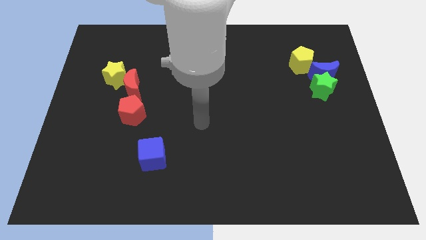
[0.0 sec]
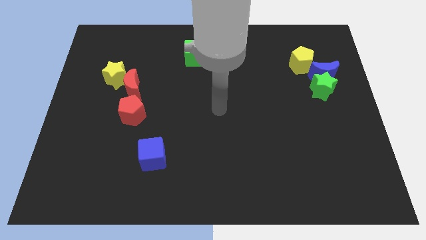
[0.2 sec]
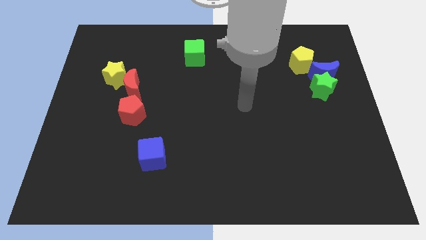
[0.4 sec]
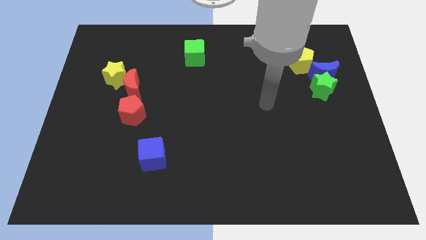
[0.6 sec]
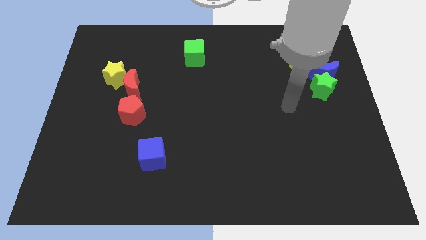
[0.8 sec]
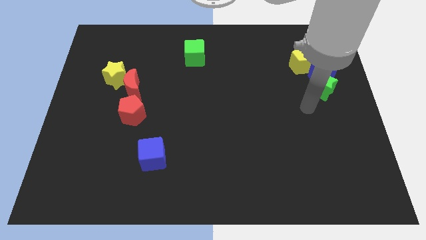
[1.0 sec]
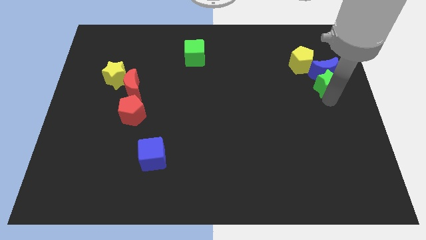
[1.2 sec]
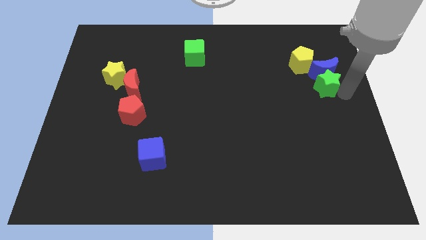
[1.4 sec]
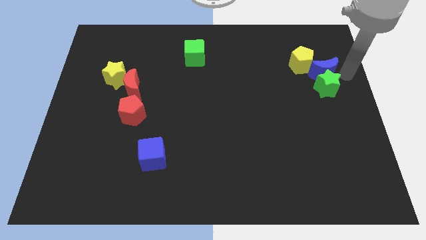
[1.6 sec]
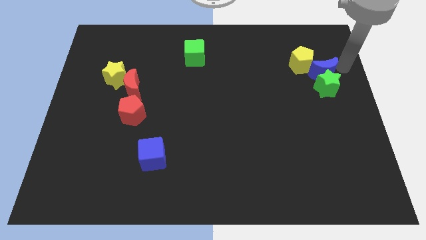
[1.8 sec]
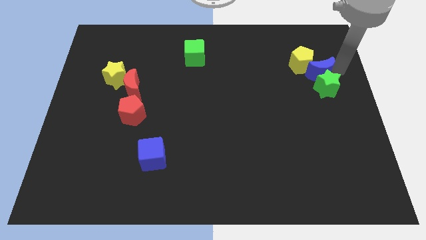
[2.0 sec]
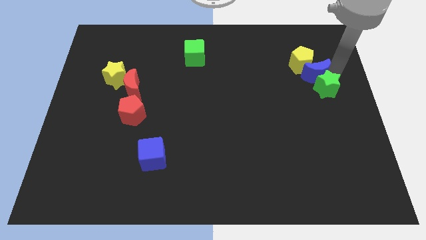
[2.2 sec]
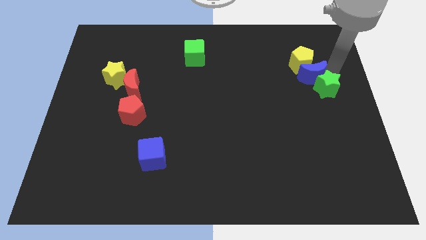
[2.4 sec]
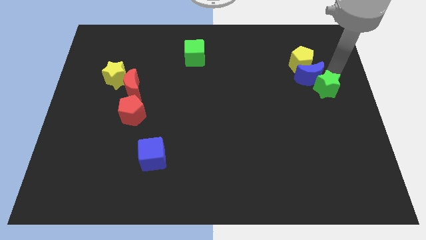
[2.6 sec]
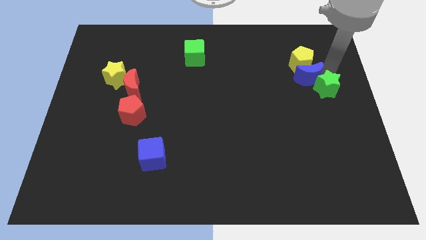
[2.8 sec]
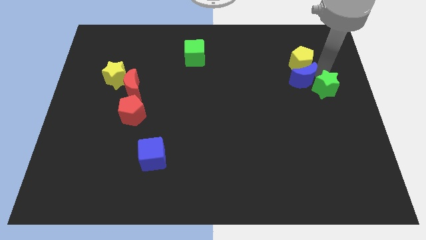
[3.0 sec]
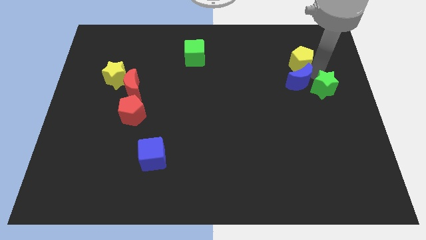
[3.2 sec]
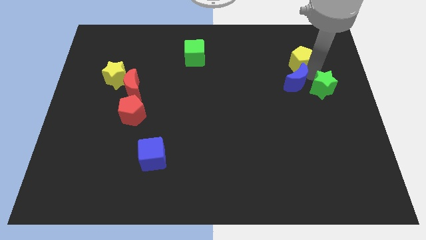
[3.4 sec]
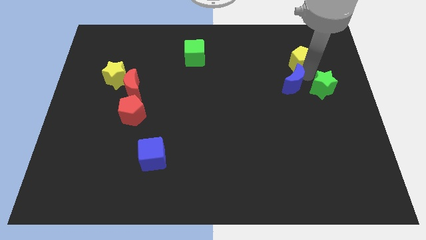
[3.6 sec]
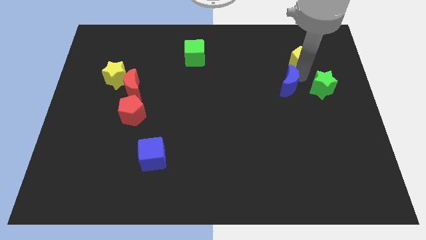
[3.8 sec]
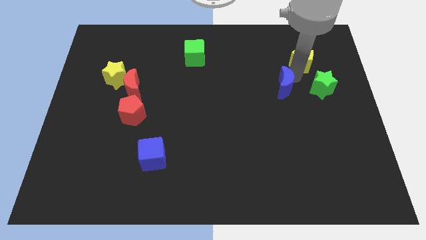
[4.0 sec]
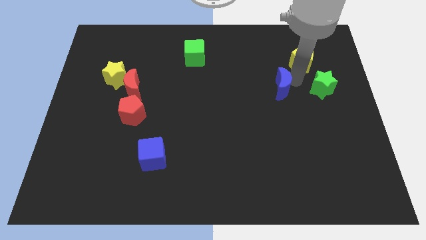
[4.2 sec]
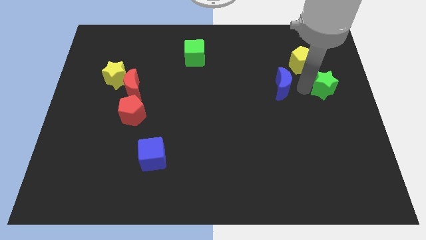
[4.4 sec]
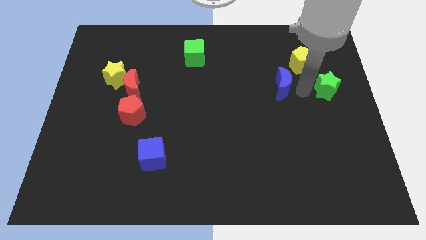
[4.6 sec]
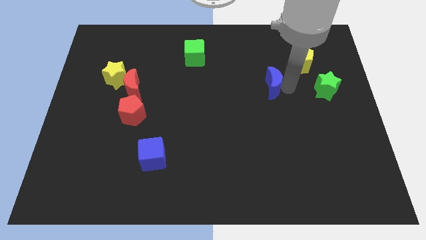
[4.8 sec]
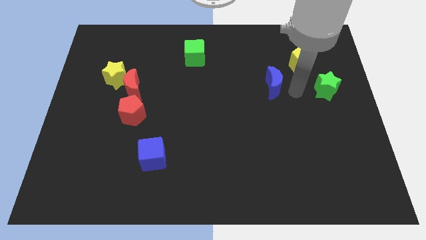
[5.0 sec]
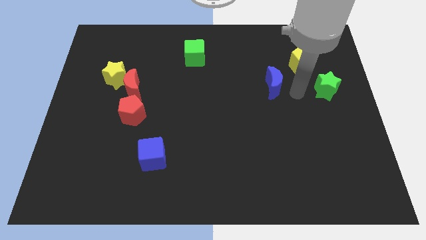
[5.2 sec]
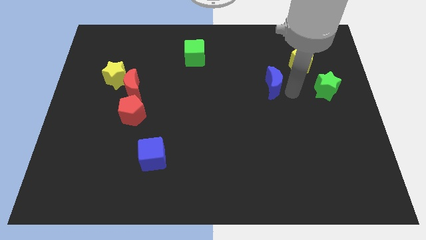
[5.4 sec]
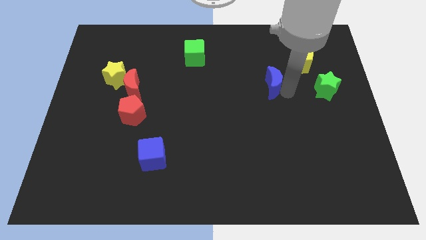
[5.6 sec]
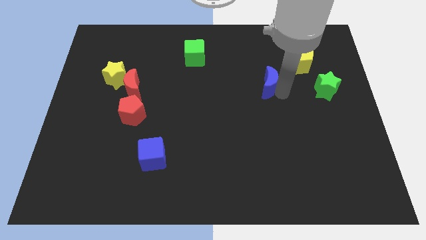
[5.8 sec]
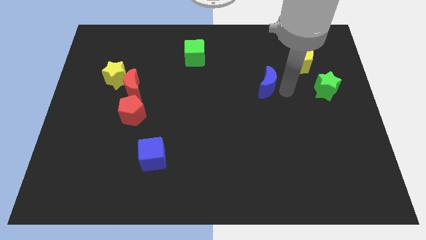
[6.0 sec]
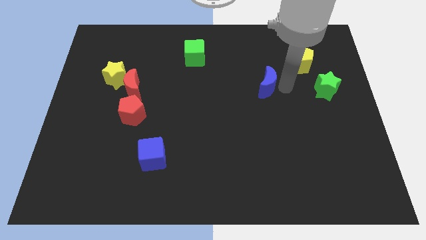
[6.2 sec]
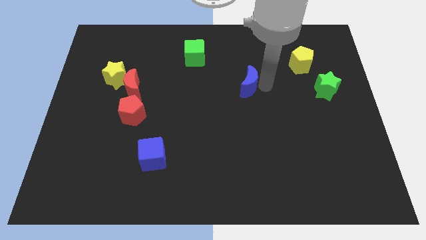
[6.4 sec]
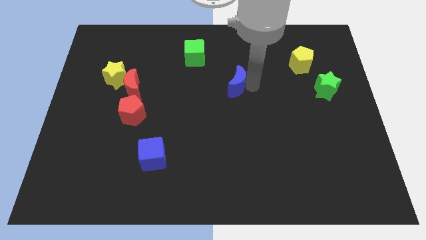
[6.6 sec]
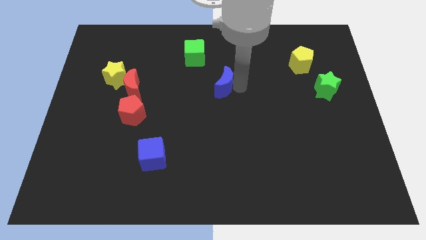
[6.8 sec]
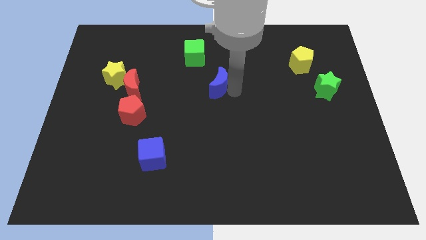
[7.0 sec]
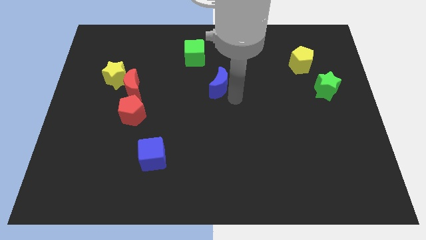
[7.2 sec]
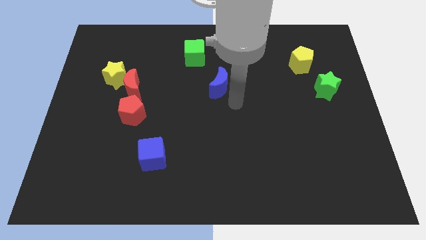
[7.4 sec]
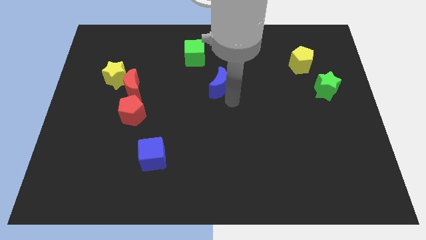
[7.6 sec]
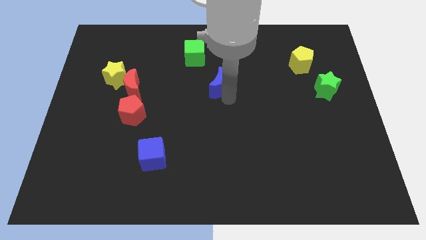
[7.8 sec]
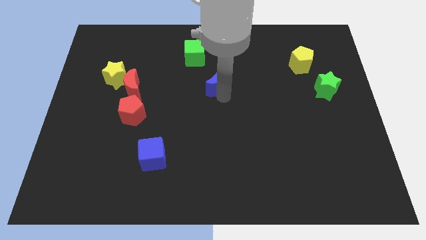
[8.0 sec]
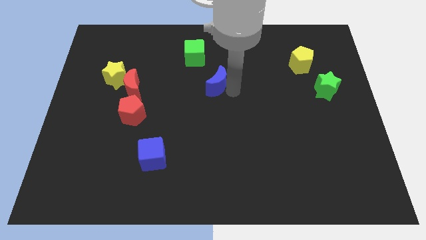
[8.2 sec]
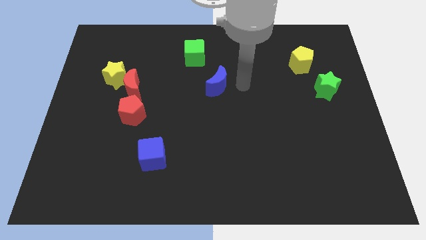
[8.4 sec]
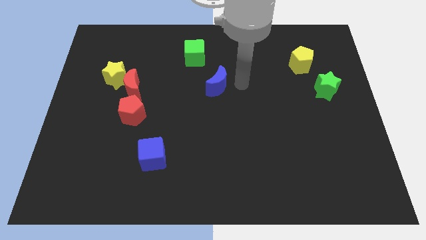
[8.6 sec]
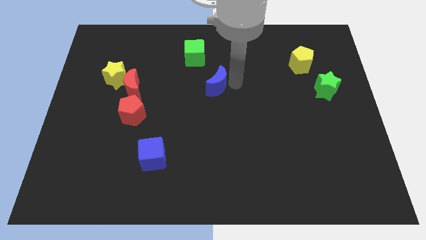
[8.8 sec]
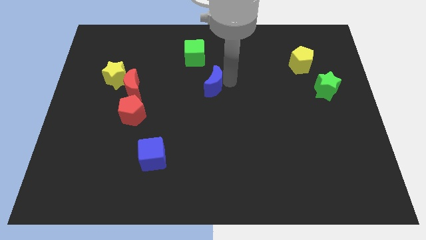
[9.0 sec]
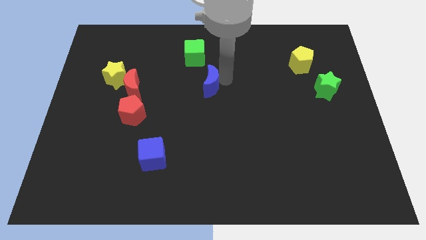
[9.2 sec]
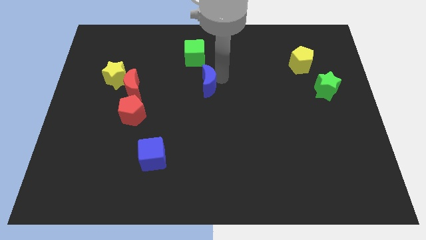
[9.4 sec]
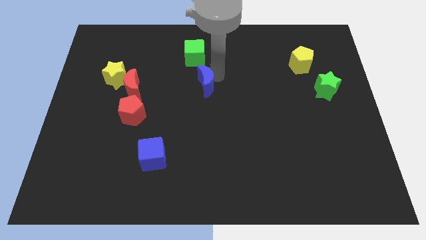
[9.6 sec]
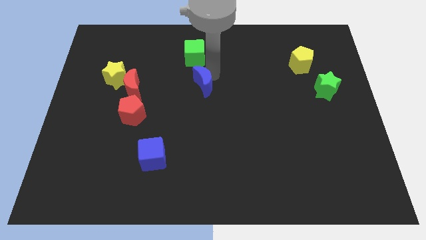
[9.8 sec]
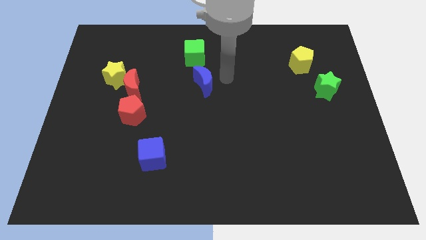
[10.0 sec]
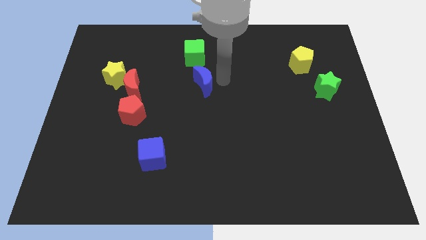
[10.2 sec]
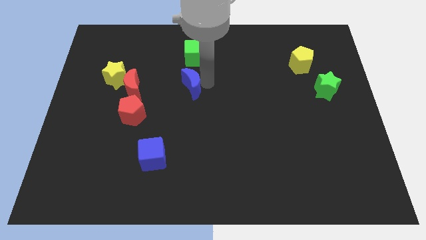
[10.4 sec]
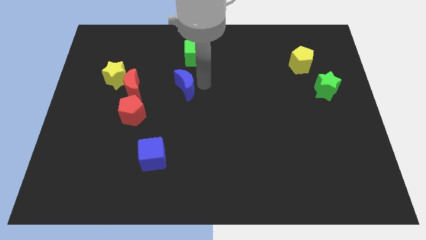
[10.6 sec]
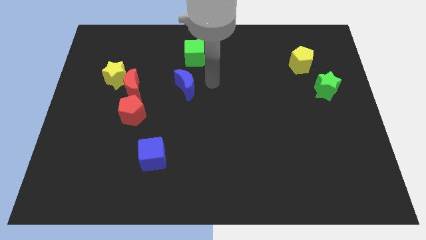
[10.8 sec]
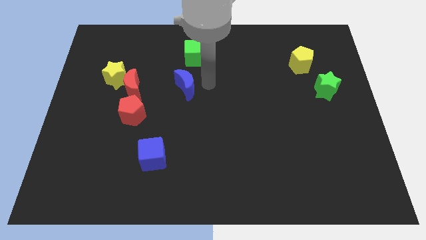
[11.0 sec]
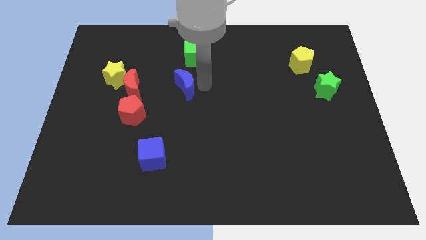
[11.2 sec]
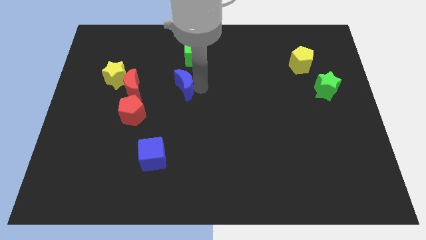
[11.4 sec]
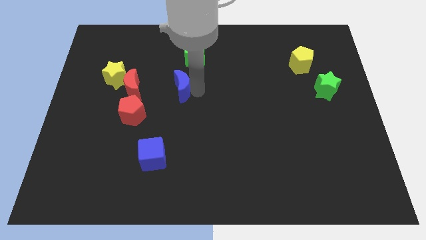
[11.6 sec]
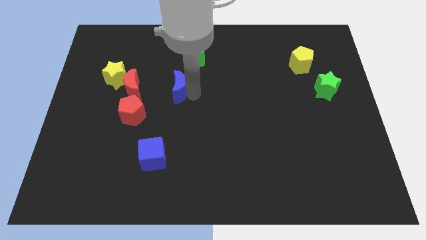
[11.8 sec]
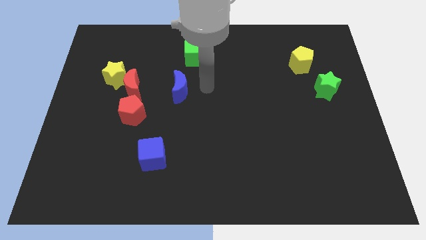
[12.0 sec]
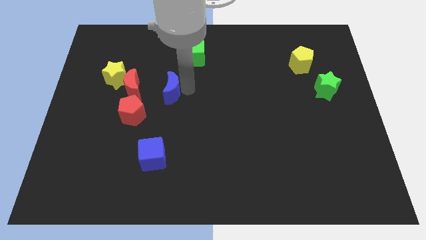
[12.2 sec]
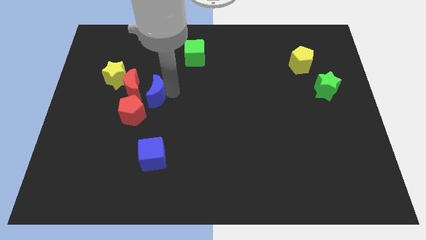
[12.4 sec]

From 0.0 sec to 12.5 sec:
push the blue moon to the bottom right of the yellow star
